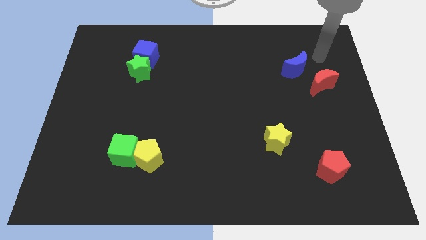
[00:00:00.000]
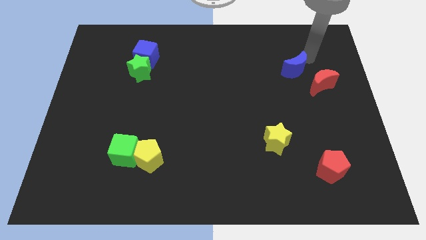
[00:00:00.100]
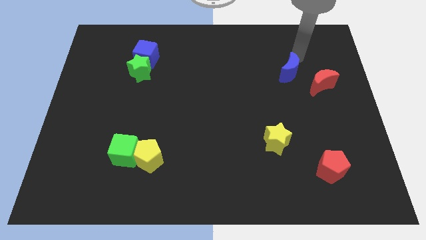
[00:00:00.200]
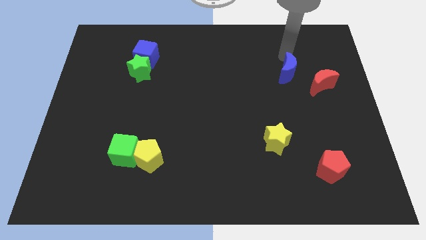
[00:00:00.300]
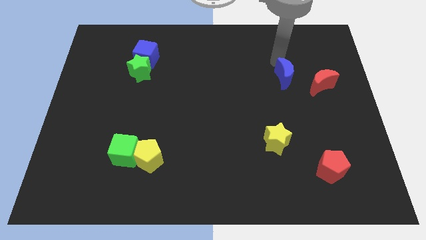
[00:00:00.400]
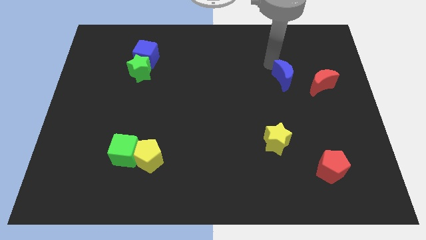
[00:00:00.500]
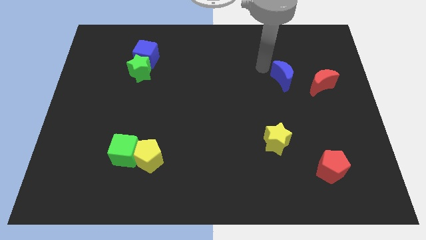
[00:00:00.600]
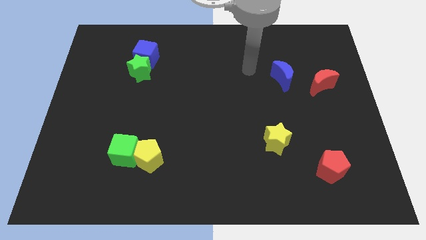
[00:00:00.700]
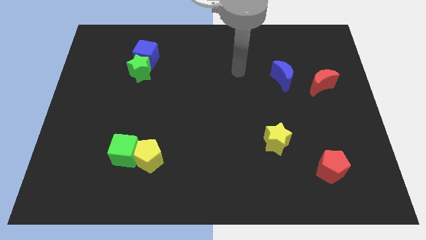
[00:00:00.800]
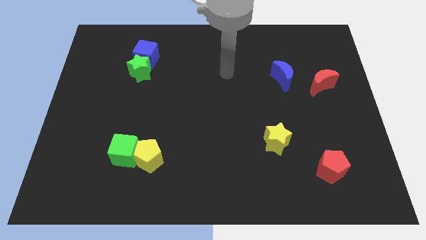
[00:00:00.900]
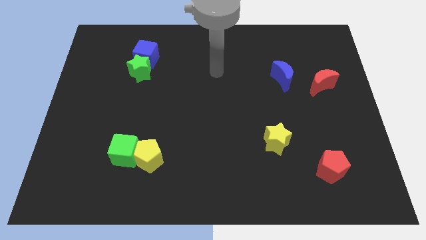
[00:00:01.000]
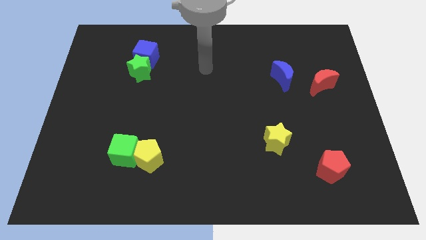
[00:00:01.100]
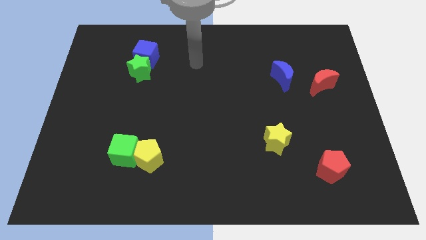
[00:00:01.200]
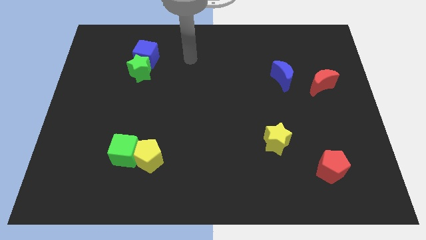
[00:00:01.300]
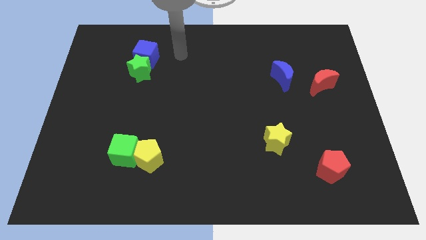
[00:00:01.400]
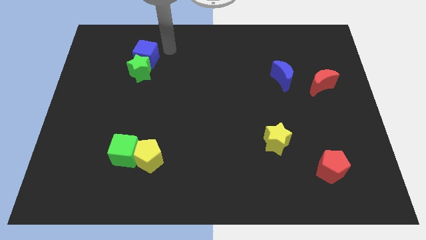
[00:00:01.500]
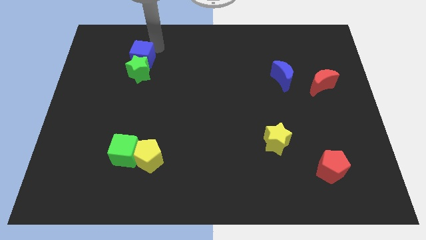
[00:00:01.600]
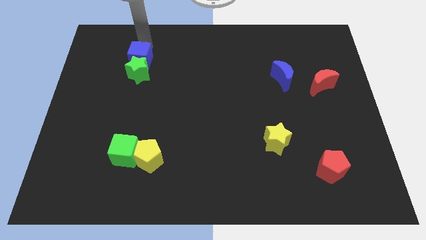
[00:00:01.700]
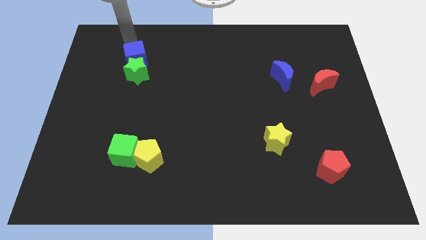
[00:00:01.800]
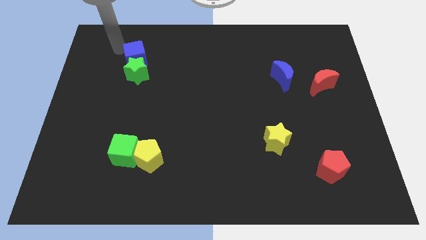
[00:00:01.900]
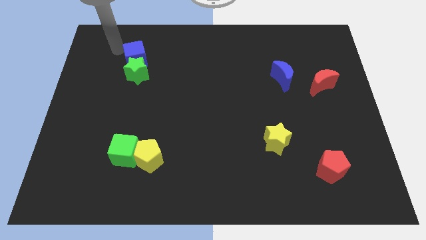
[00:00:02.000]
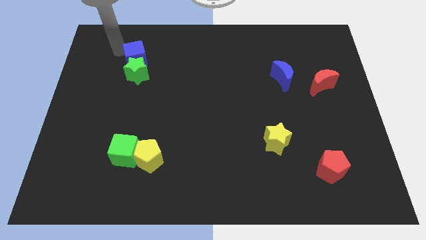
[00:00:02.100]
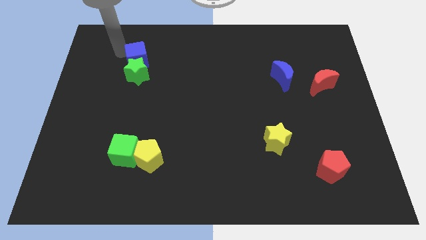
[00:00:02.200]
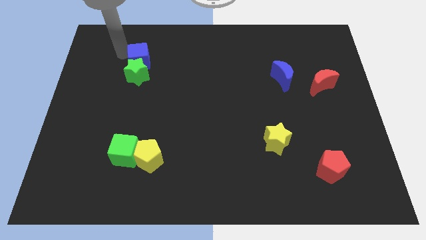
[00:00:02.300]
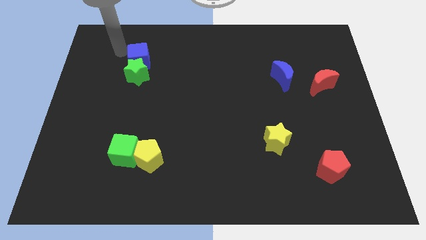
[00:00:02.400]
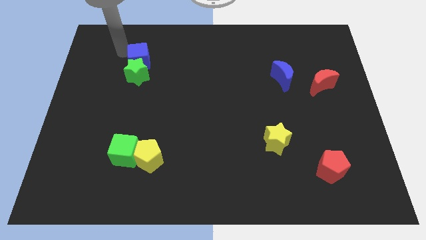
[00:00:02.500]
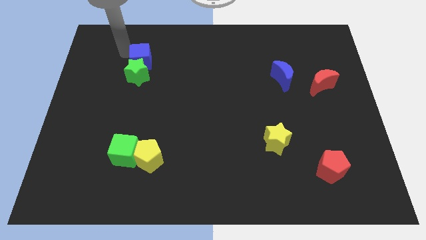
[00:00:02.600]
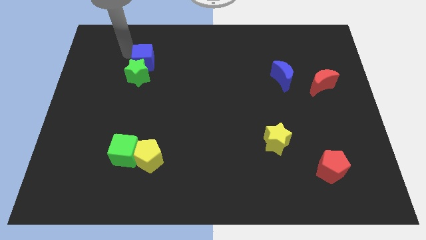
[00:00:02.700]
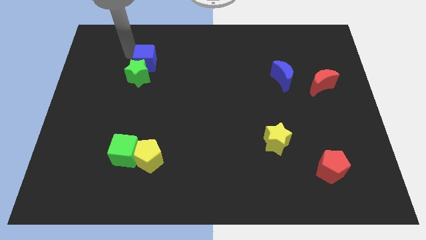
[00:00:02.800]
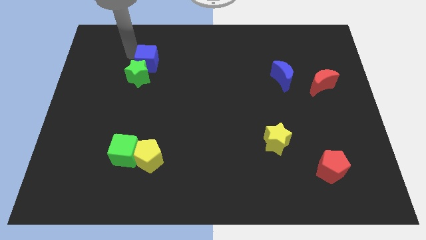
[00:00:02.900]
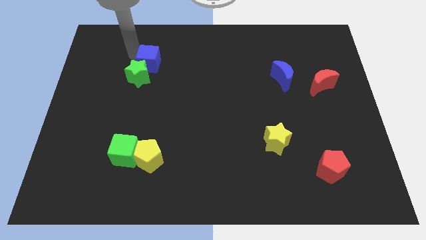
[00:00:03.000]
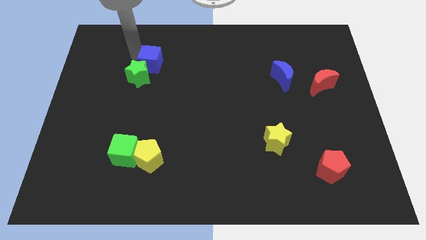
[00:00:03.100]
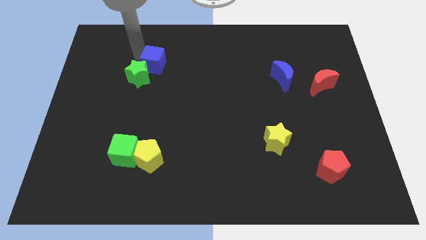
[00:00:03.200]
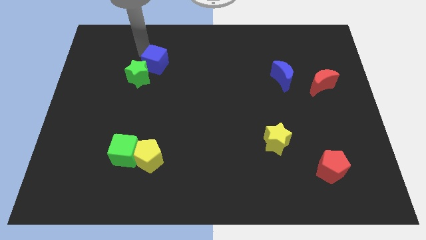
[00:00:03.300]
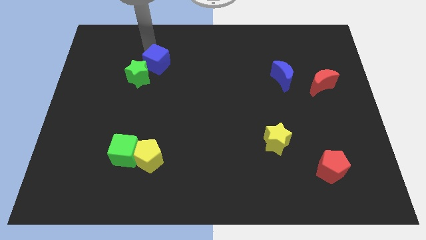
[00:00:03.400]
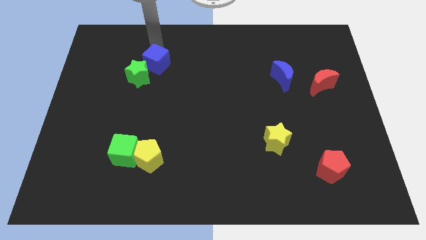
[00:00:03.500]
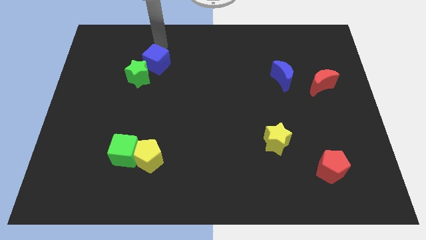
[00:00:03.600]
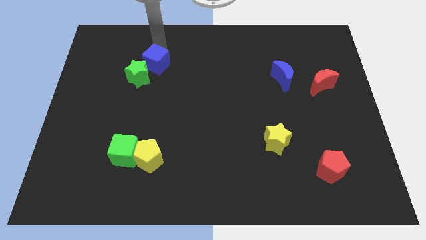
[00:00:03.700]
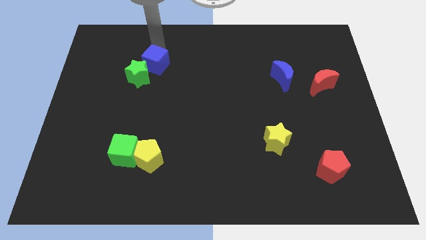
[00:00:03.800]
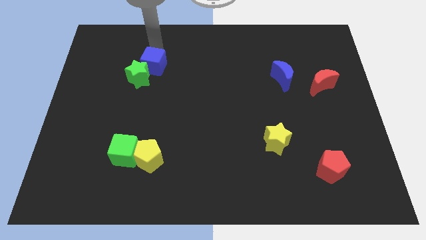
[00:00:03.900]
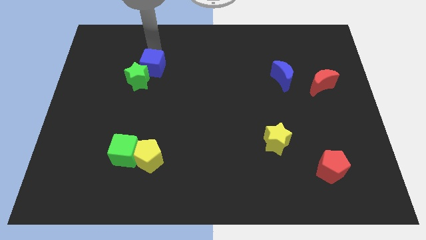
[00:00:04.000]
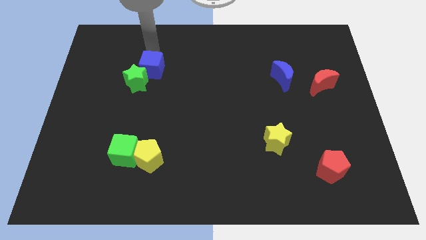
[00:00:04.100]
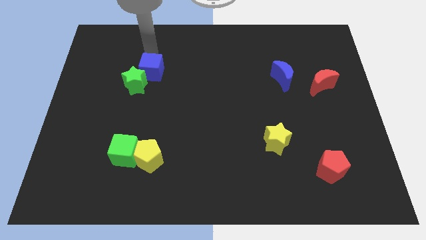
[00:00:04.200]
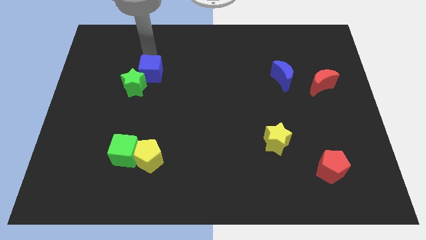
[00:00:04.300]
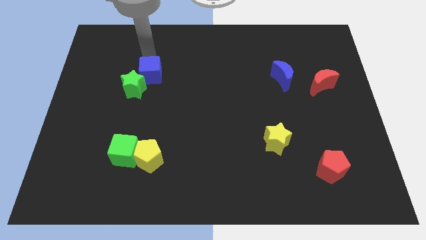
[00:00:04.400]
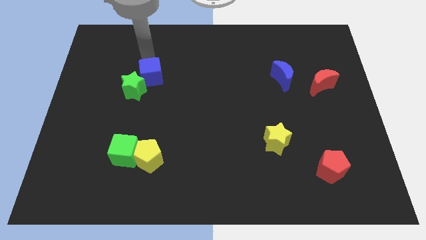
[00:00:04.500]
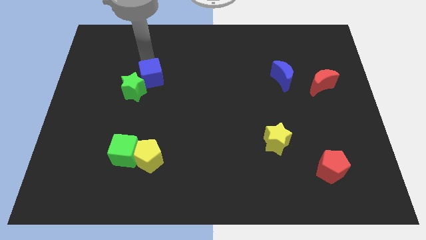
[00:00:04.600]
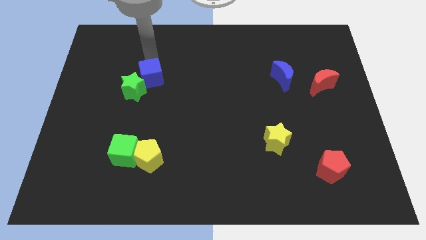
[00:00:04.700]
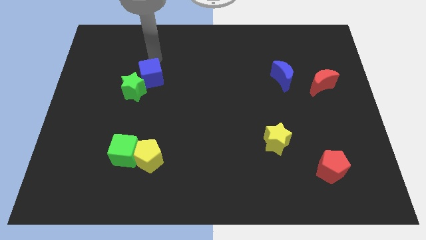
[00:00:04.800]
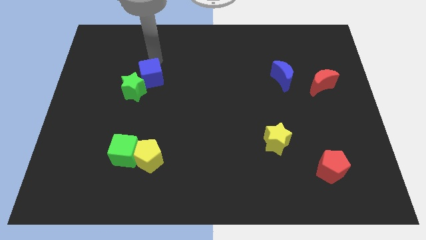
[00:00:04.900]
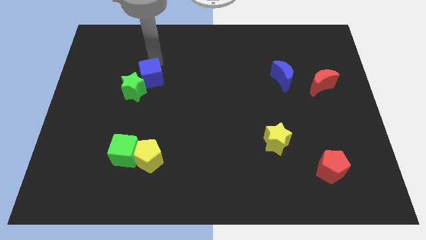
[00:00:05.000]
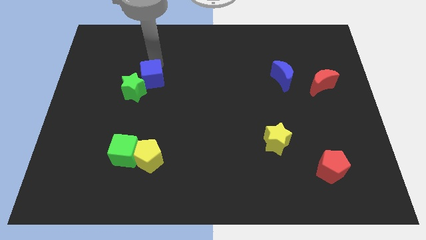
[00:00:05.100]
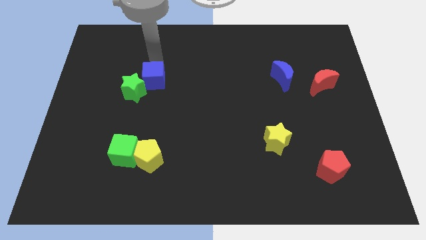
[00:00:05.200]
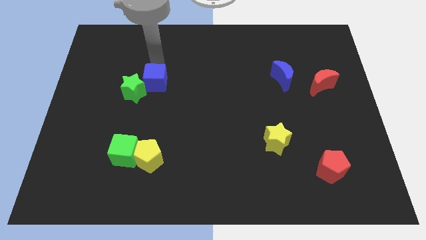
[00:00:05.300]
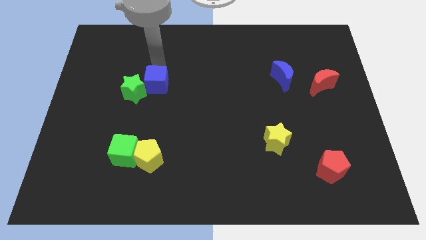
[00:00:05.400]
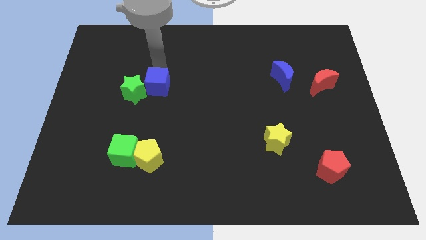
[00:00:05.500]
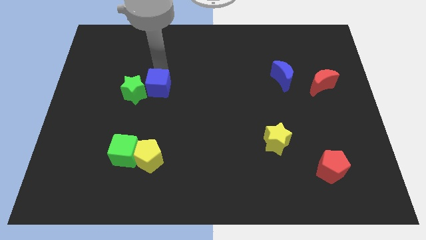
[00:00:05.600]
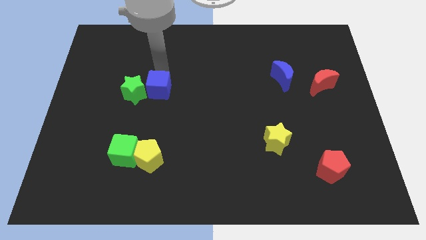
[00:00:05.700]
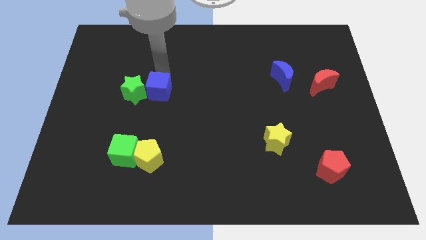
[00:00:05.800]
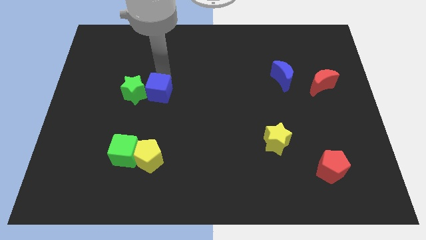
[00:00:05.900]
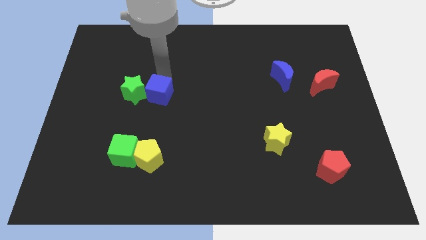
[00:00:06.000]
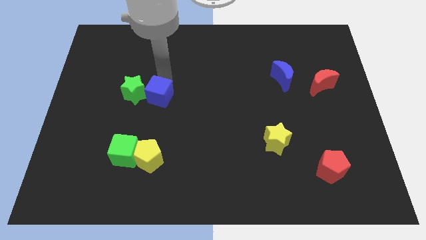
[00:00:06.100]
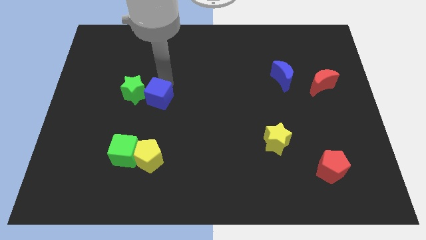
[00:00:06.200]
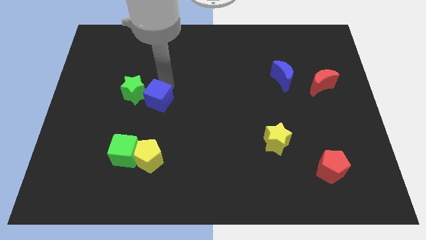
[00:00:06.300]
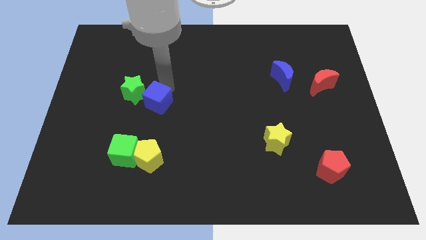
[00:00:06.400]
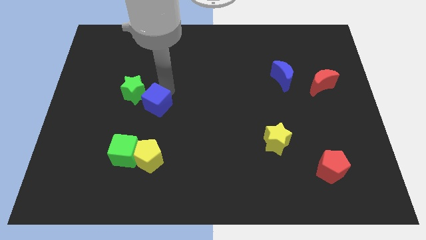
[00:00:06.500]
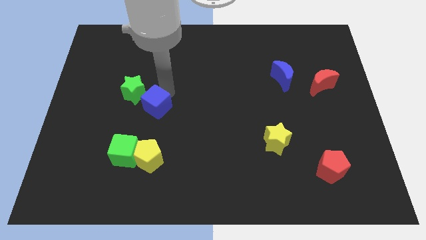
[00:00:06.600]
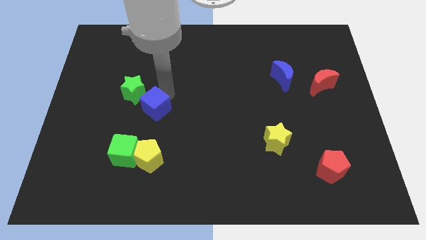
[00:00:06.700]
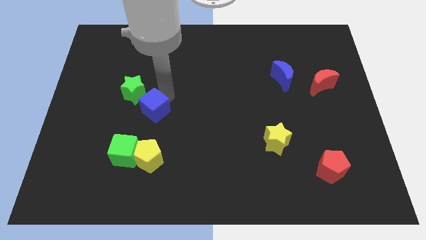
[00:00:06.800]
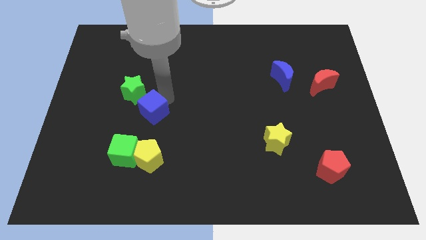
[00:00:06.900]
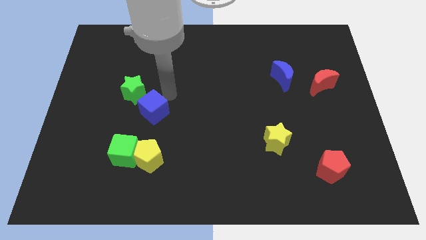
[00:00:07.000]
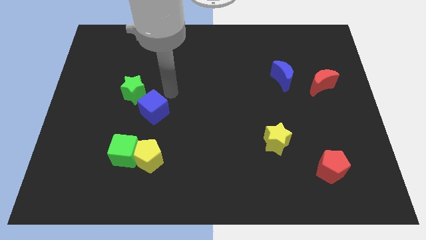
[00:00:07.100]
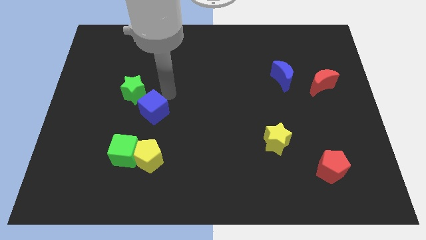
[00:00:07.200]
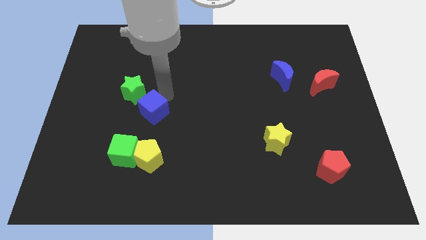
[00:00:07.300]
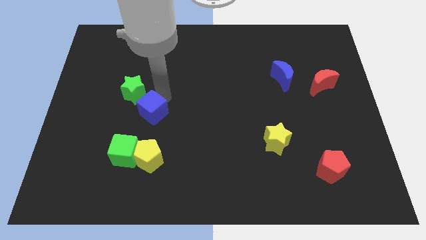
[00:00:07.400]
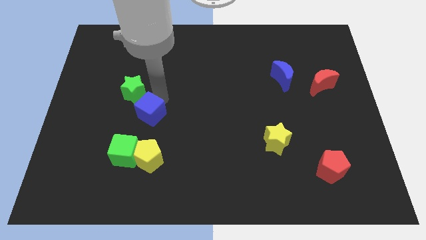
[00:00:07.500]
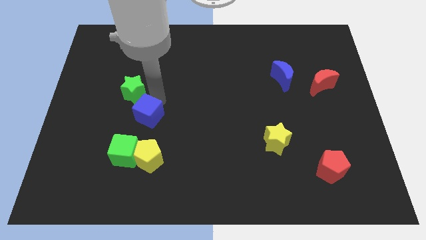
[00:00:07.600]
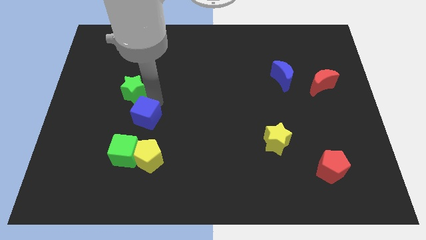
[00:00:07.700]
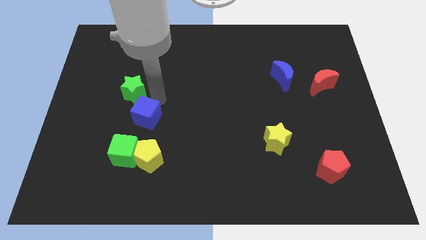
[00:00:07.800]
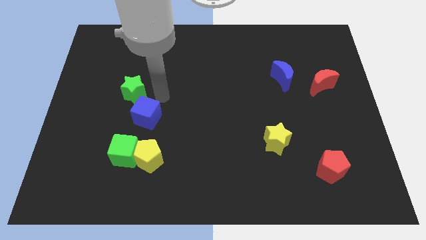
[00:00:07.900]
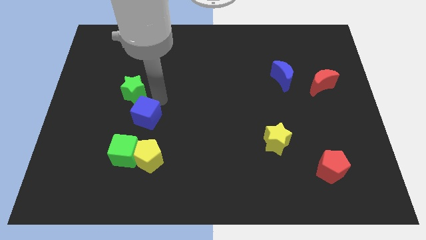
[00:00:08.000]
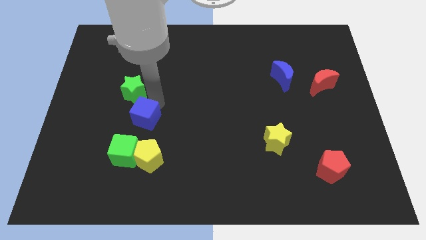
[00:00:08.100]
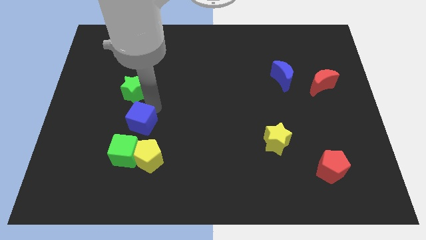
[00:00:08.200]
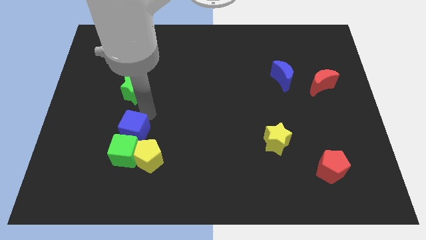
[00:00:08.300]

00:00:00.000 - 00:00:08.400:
slide the blue cube close to the green cube
